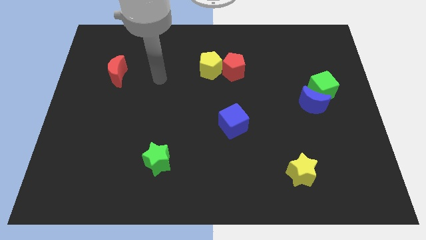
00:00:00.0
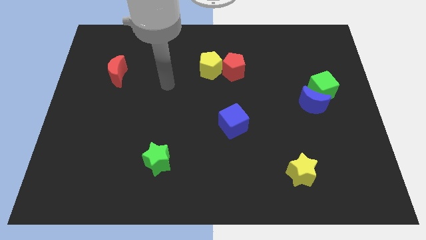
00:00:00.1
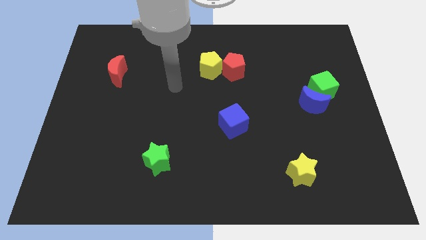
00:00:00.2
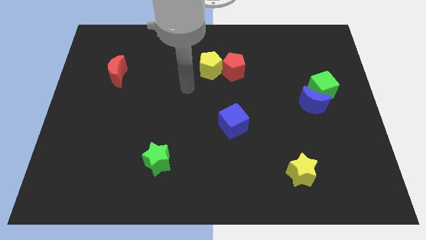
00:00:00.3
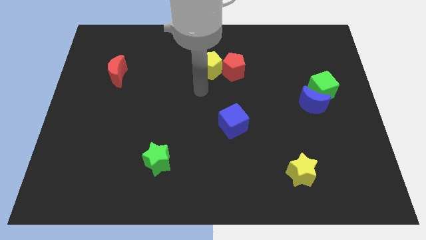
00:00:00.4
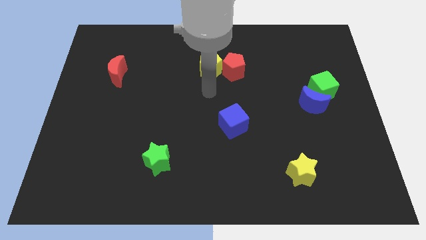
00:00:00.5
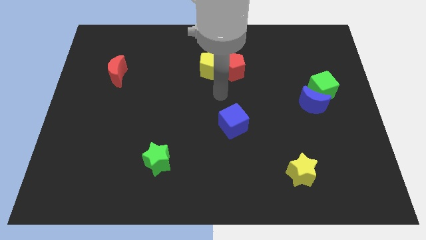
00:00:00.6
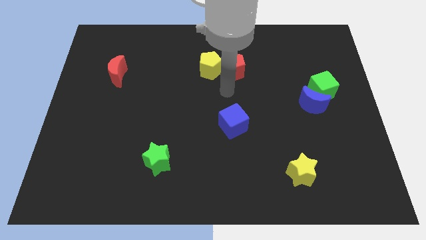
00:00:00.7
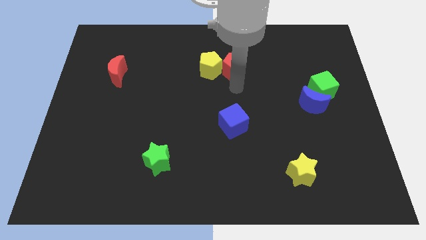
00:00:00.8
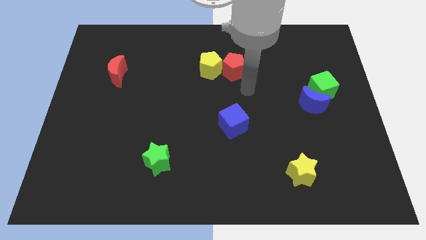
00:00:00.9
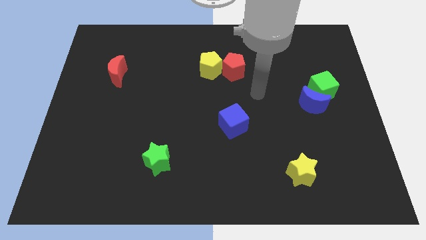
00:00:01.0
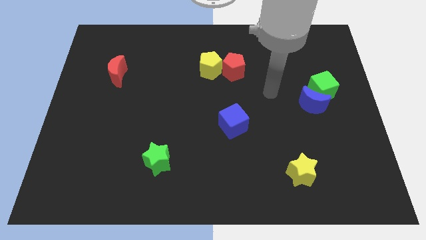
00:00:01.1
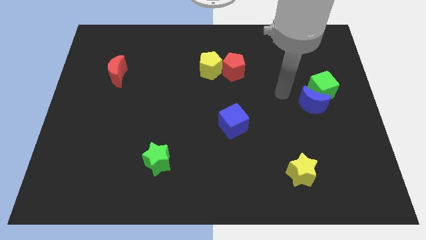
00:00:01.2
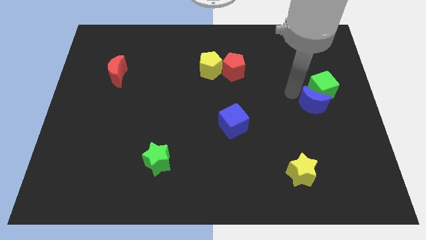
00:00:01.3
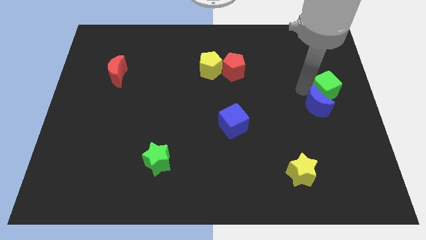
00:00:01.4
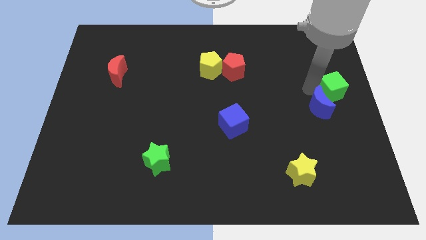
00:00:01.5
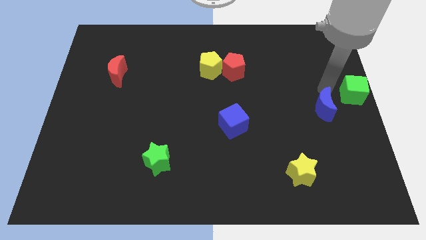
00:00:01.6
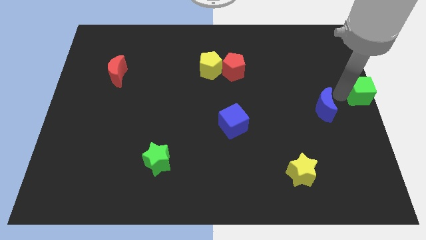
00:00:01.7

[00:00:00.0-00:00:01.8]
separate the blue moon from the green cube

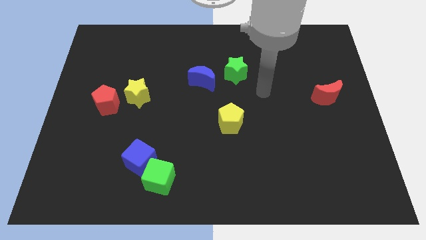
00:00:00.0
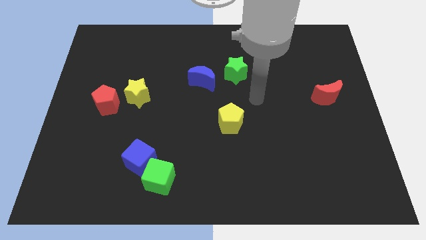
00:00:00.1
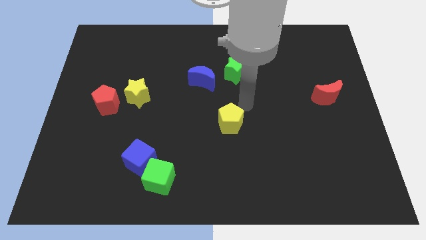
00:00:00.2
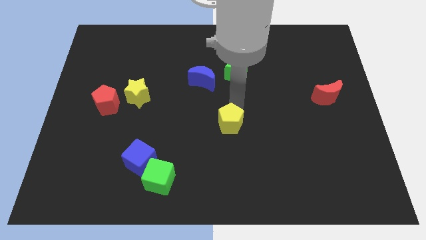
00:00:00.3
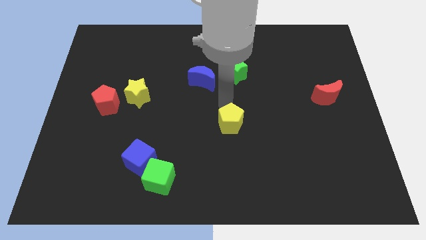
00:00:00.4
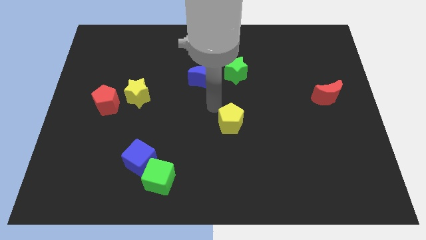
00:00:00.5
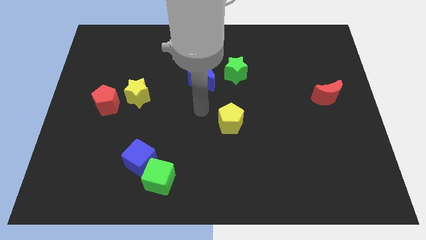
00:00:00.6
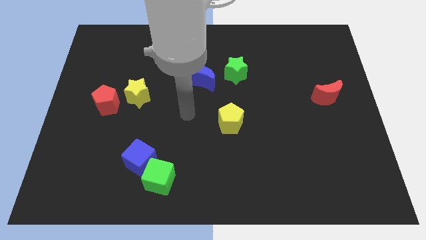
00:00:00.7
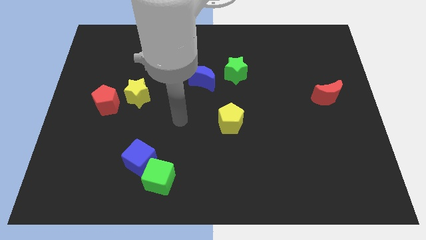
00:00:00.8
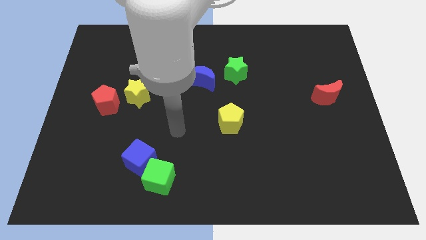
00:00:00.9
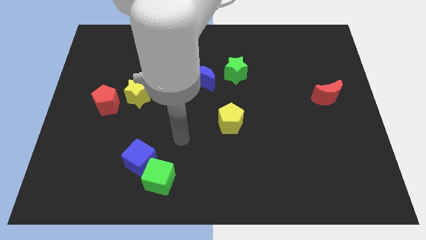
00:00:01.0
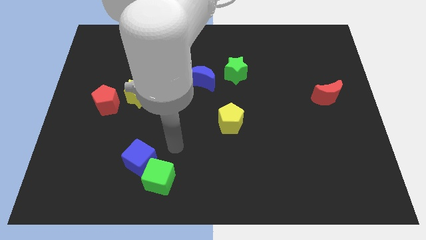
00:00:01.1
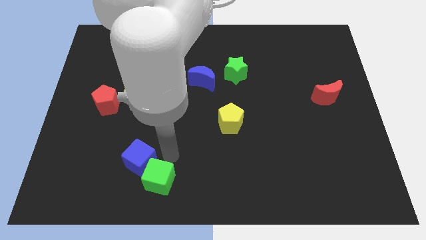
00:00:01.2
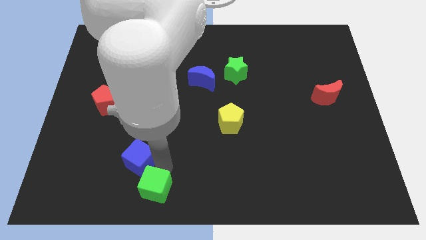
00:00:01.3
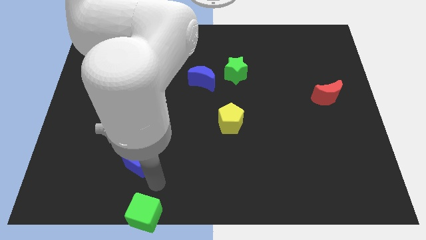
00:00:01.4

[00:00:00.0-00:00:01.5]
move the blue cube away from the green cube

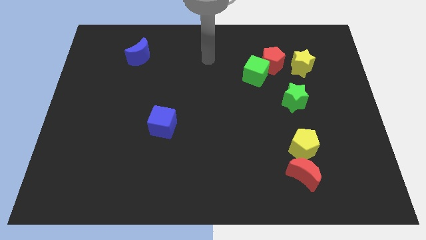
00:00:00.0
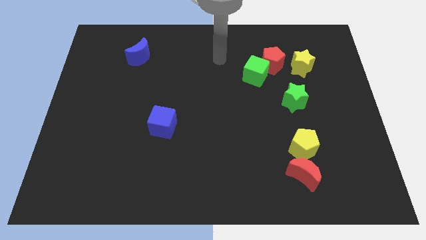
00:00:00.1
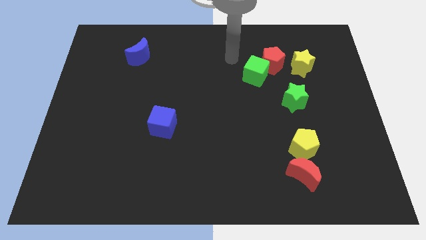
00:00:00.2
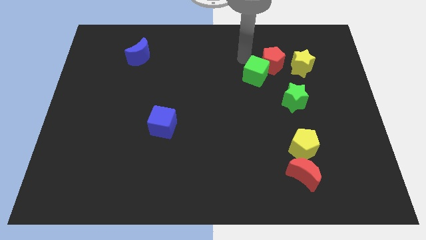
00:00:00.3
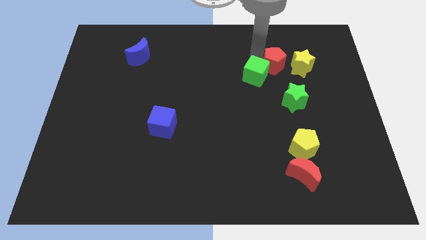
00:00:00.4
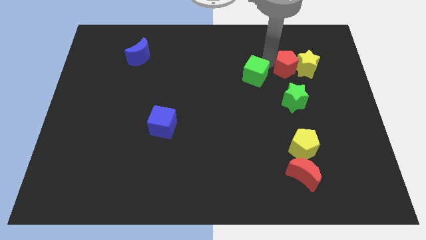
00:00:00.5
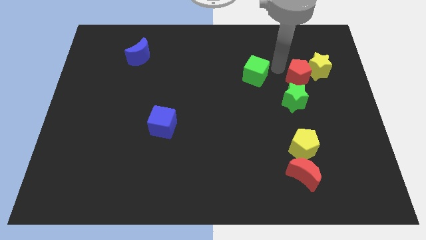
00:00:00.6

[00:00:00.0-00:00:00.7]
pull the green cube apart from the red pentagon

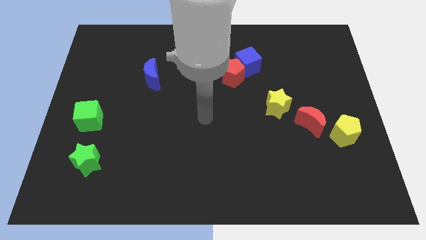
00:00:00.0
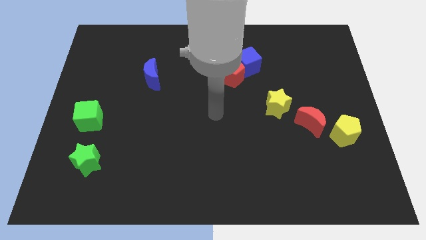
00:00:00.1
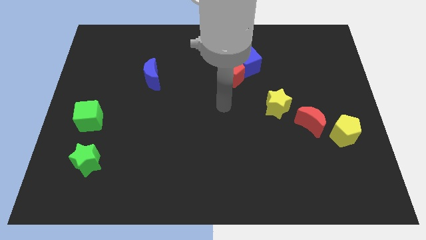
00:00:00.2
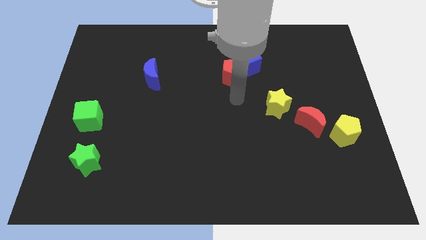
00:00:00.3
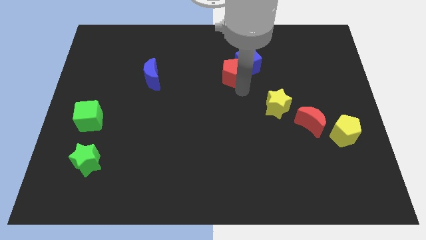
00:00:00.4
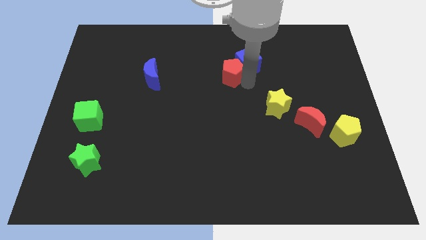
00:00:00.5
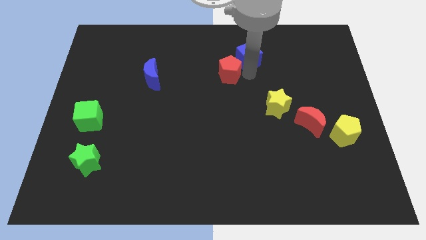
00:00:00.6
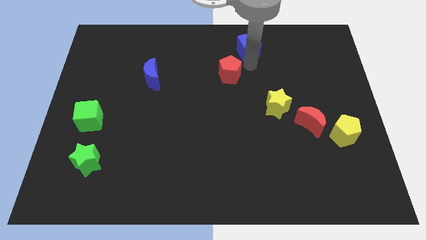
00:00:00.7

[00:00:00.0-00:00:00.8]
pull the red pentagon apart from the blue cube

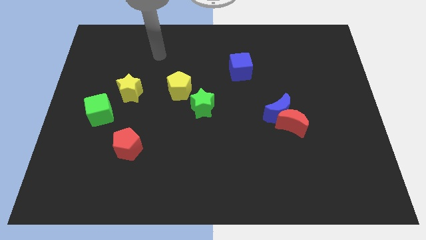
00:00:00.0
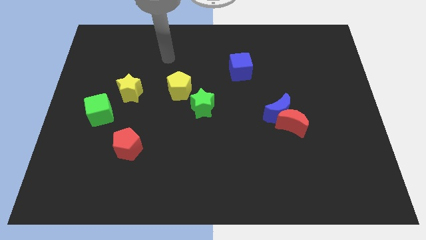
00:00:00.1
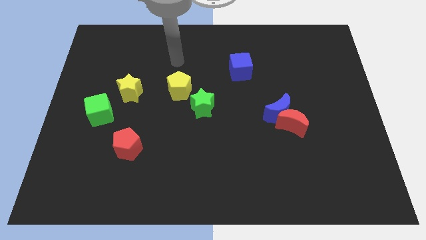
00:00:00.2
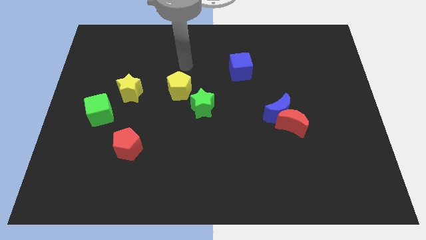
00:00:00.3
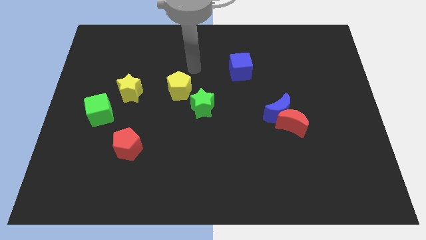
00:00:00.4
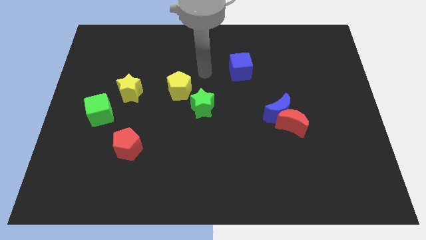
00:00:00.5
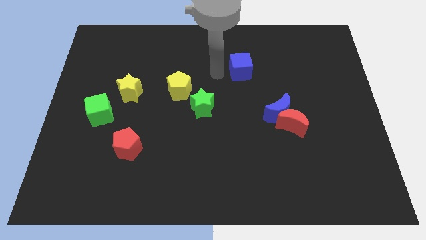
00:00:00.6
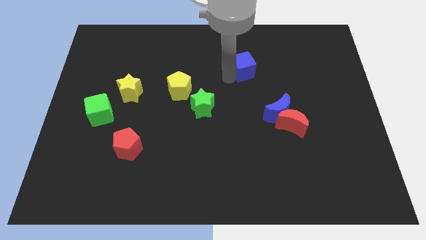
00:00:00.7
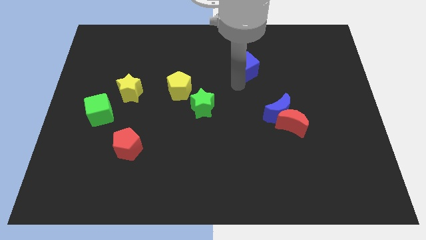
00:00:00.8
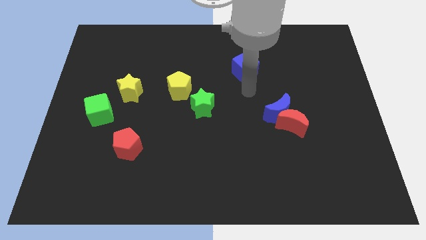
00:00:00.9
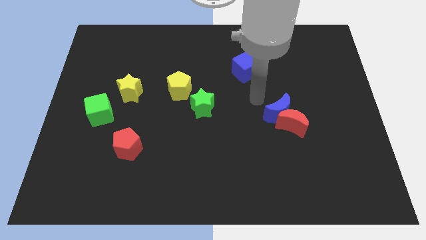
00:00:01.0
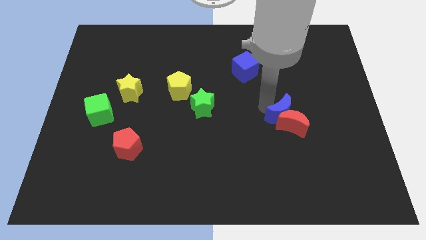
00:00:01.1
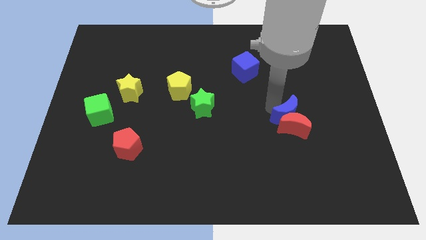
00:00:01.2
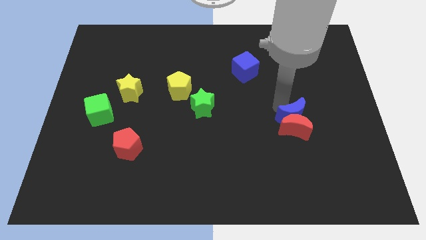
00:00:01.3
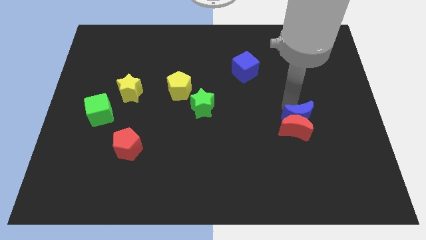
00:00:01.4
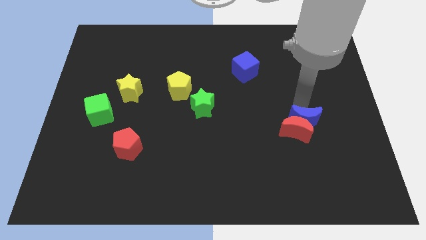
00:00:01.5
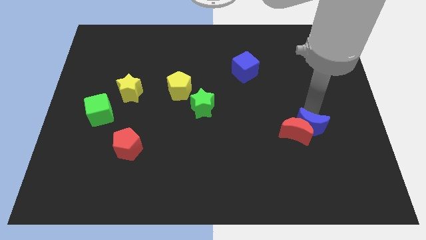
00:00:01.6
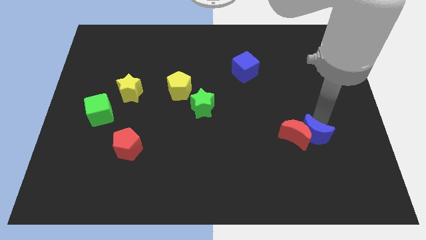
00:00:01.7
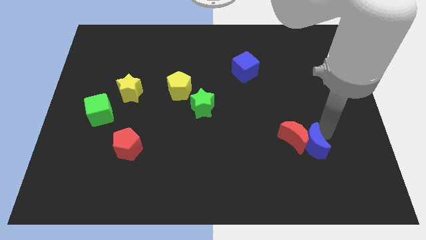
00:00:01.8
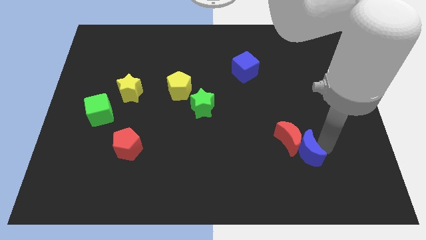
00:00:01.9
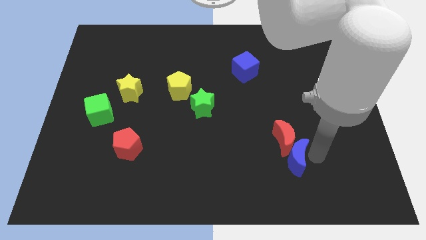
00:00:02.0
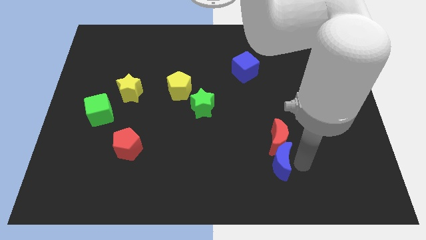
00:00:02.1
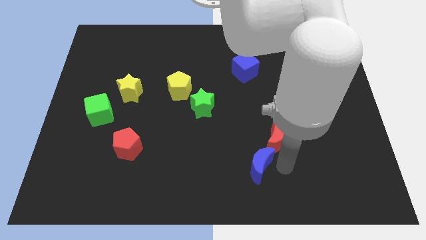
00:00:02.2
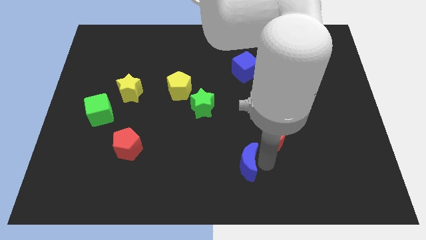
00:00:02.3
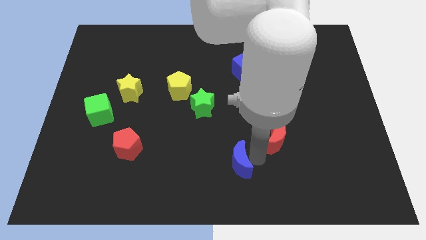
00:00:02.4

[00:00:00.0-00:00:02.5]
pull the red moon apart from the blue moon

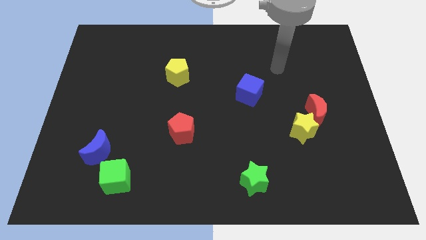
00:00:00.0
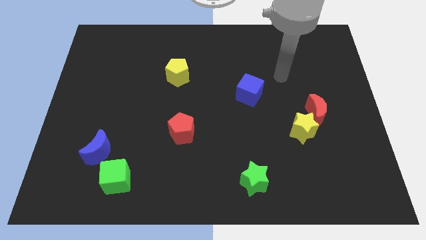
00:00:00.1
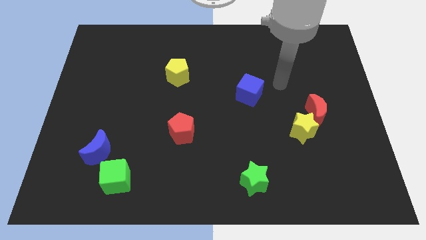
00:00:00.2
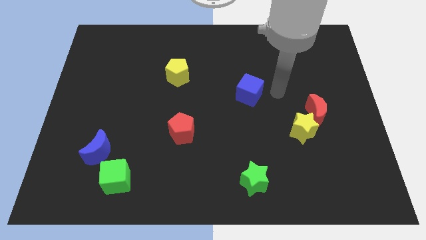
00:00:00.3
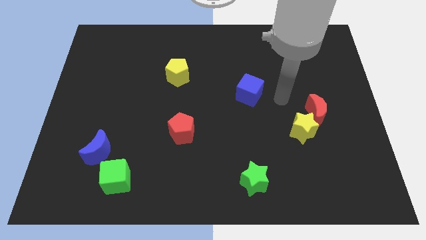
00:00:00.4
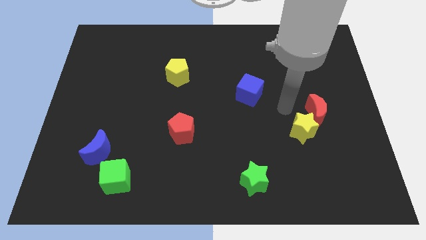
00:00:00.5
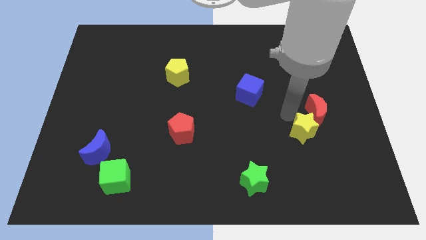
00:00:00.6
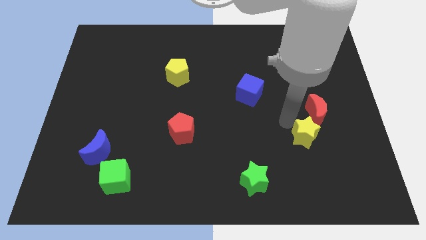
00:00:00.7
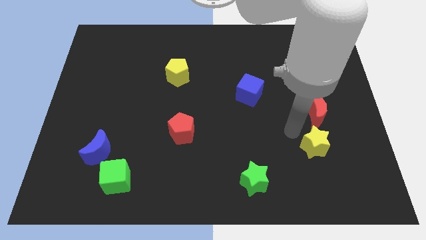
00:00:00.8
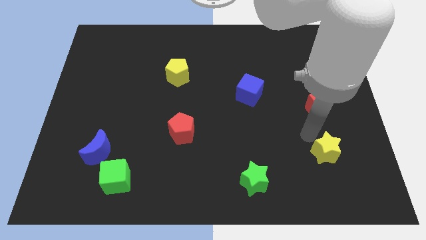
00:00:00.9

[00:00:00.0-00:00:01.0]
move the red moon away from the yellow star

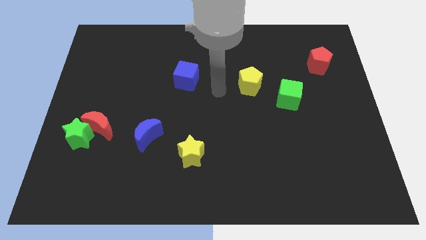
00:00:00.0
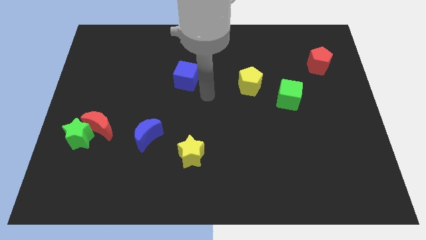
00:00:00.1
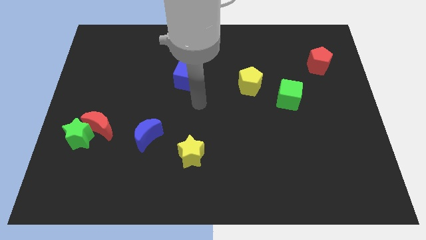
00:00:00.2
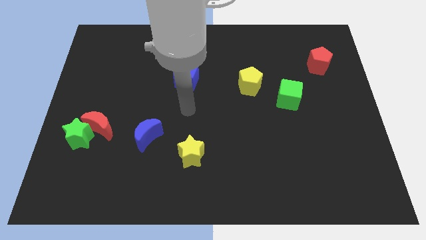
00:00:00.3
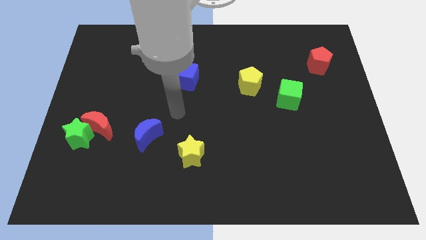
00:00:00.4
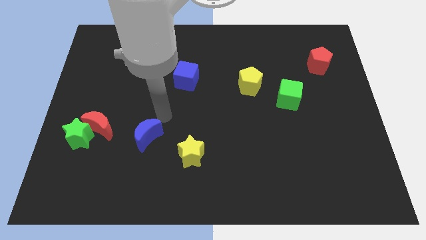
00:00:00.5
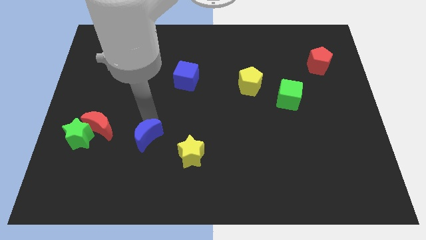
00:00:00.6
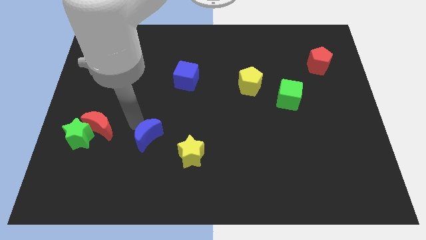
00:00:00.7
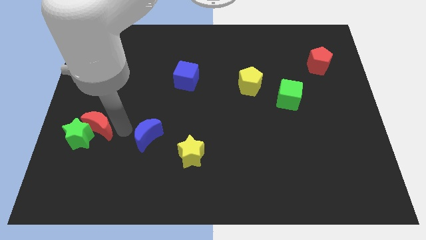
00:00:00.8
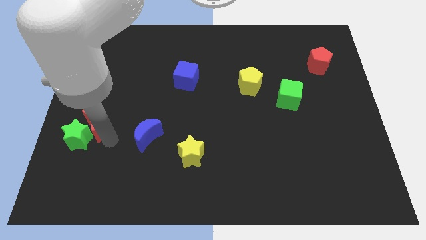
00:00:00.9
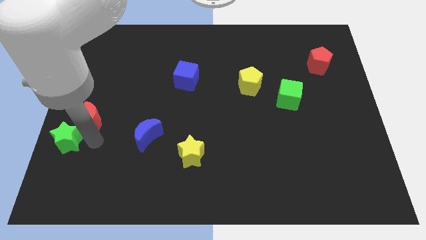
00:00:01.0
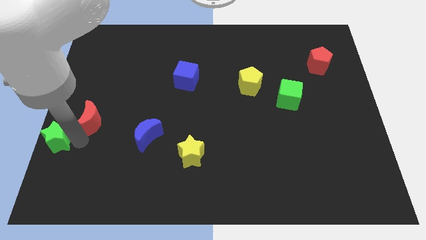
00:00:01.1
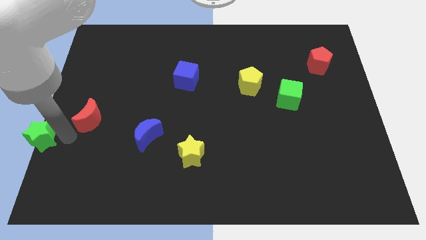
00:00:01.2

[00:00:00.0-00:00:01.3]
move the red moon away from the green star
